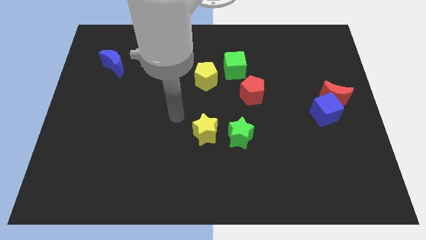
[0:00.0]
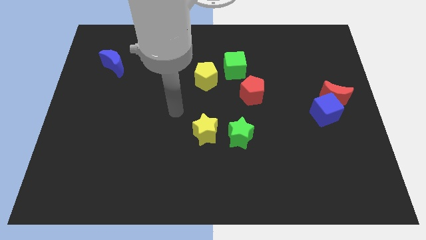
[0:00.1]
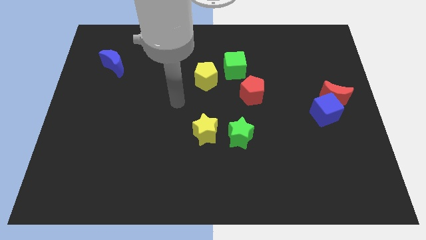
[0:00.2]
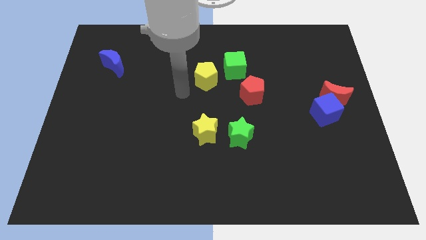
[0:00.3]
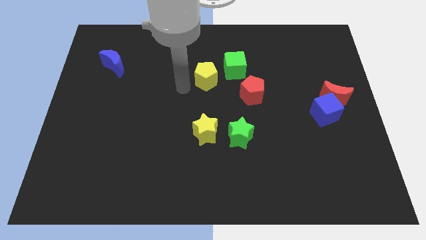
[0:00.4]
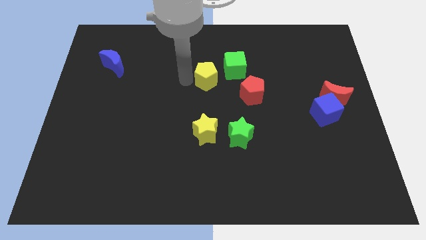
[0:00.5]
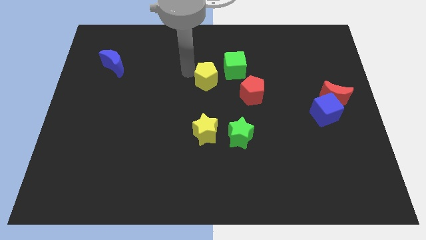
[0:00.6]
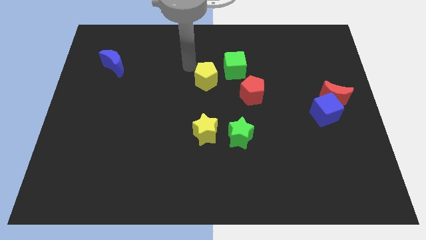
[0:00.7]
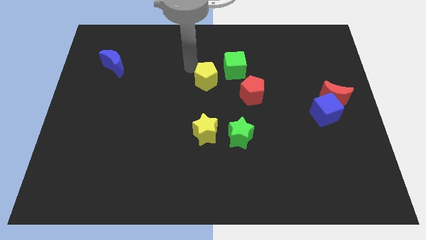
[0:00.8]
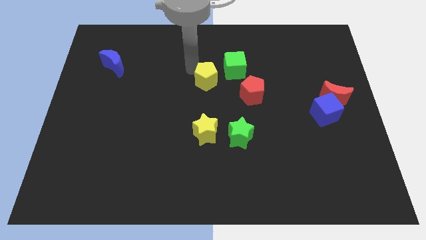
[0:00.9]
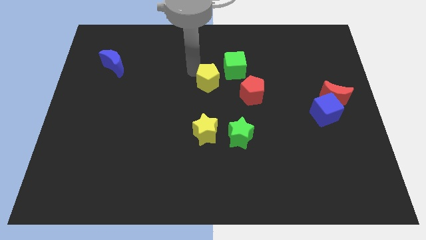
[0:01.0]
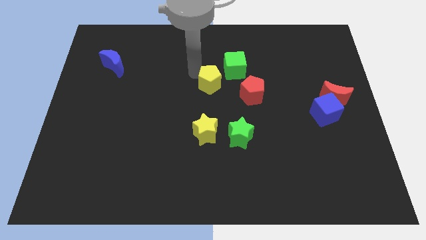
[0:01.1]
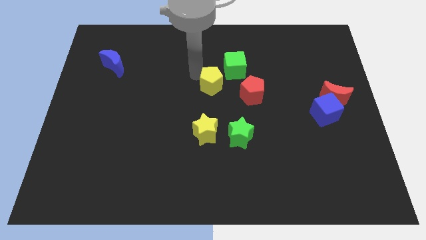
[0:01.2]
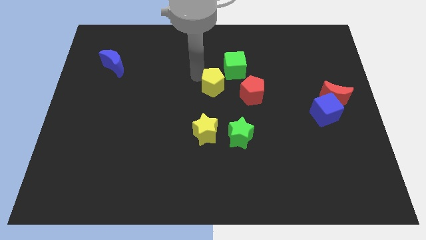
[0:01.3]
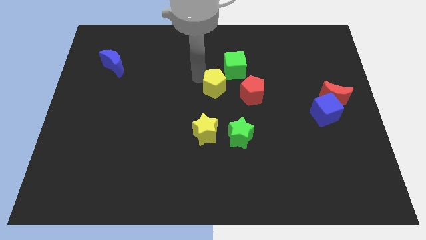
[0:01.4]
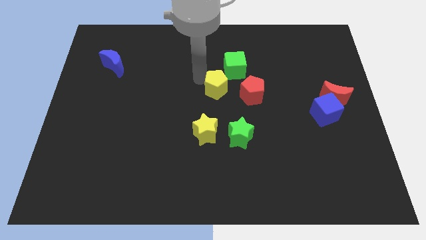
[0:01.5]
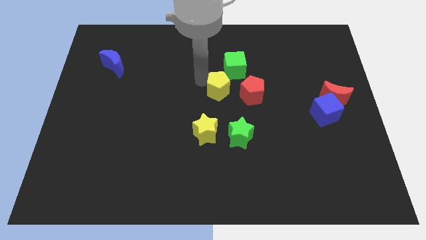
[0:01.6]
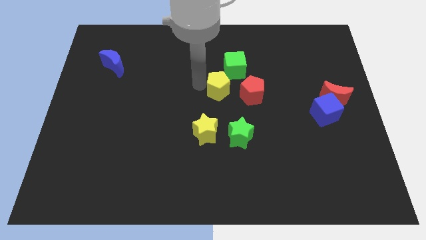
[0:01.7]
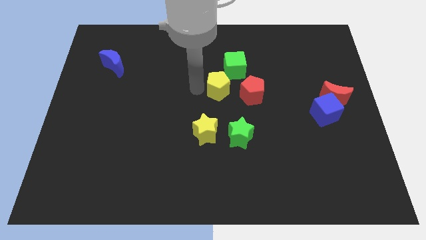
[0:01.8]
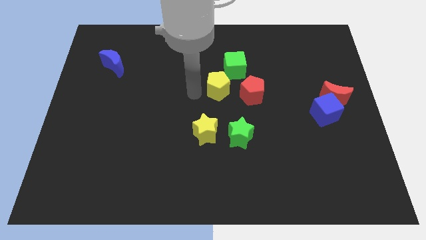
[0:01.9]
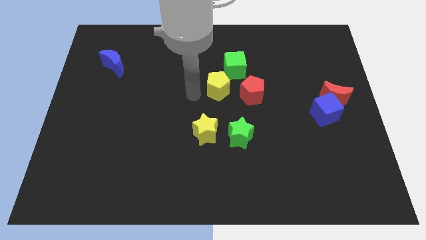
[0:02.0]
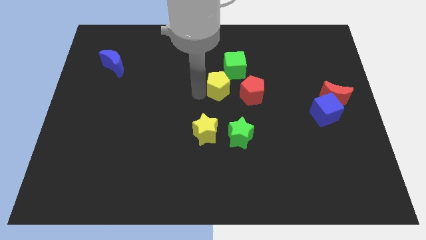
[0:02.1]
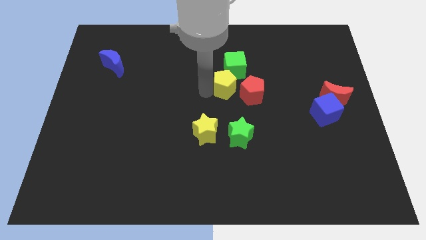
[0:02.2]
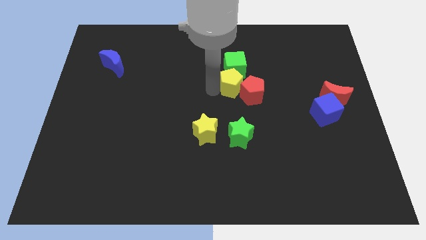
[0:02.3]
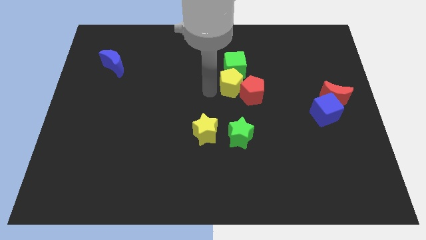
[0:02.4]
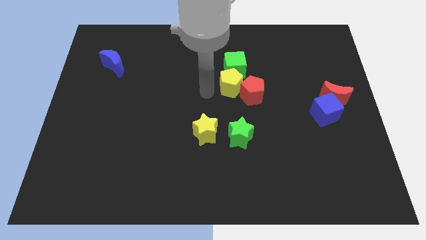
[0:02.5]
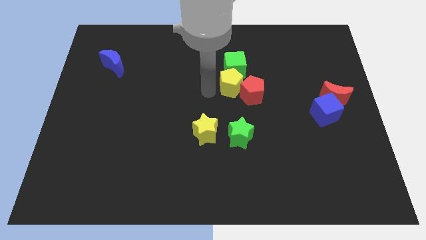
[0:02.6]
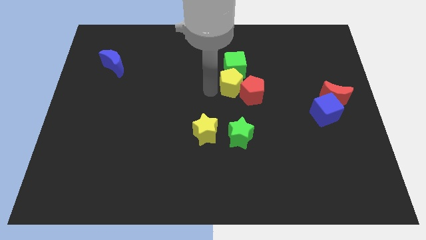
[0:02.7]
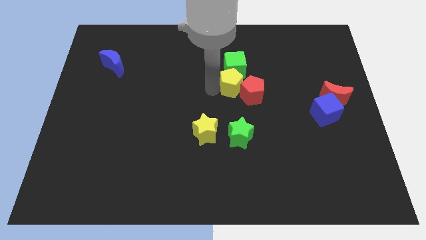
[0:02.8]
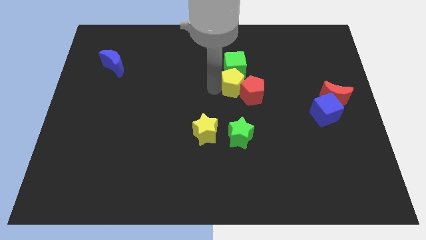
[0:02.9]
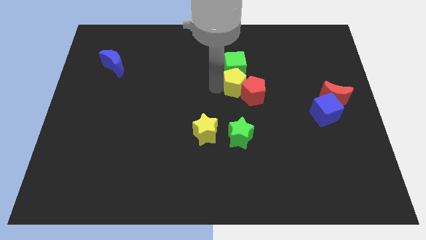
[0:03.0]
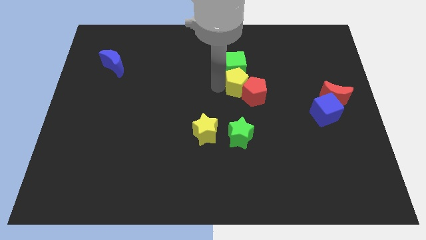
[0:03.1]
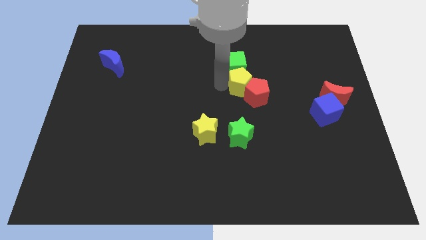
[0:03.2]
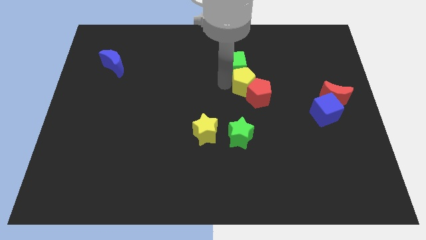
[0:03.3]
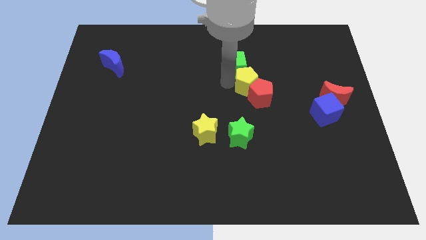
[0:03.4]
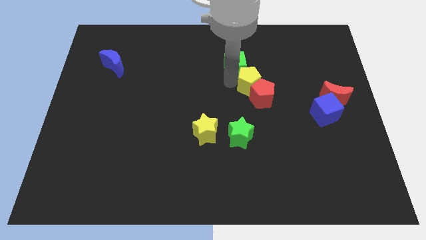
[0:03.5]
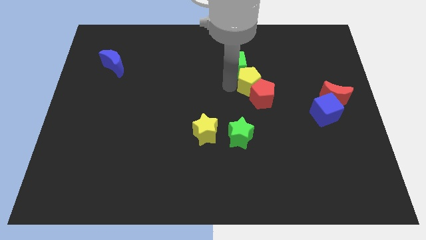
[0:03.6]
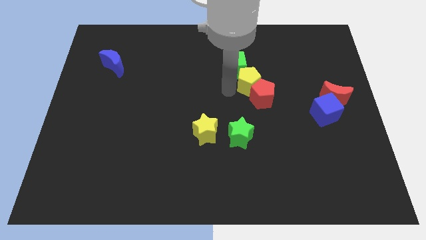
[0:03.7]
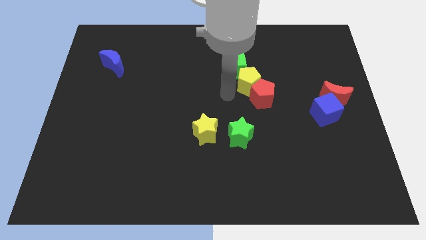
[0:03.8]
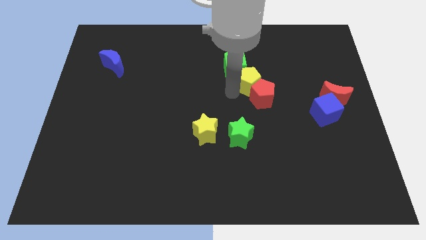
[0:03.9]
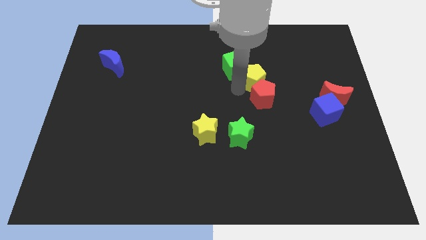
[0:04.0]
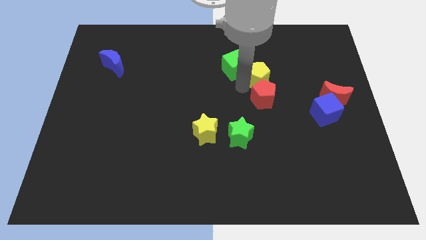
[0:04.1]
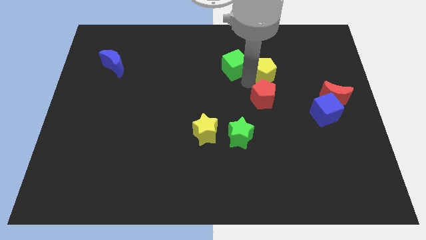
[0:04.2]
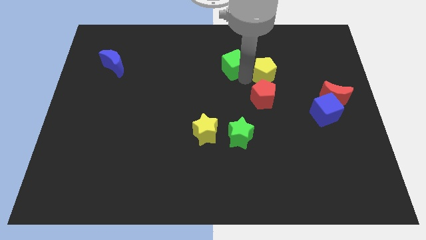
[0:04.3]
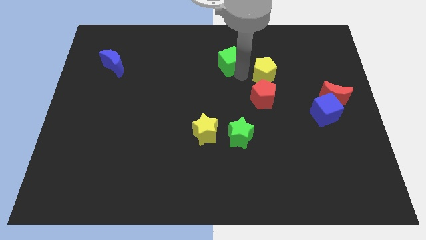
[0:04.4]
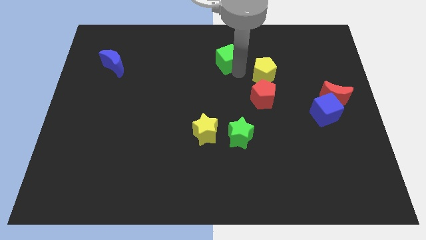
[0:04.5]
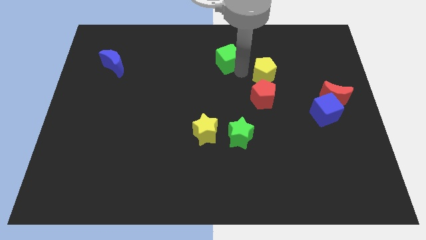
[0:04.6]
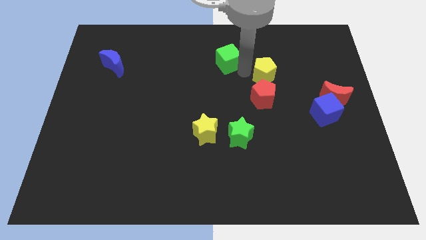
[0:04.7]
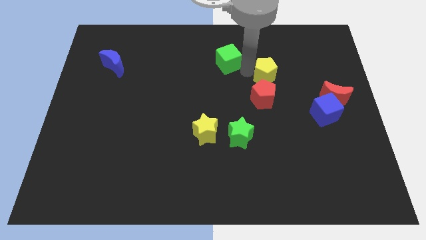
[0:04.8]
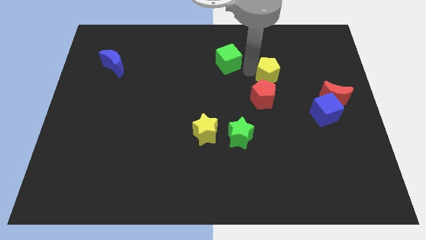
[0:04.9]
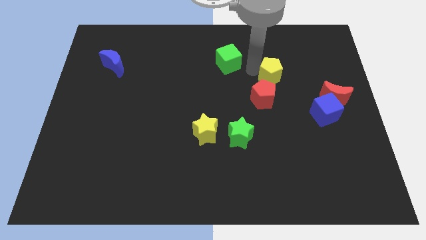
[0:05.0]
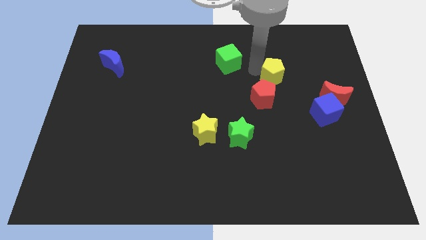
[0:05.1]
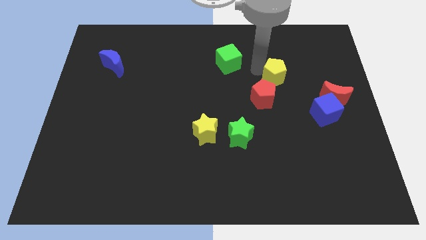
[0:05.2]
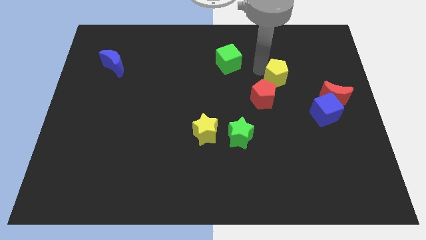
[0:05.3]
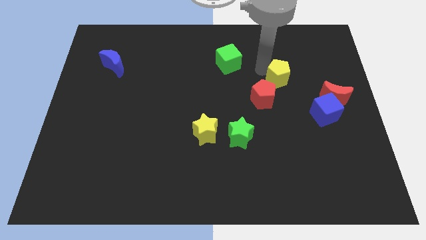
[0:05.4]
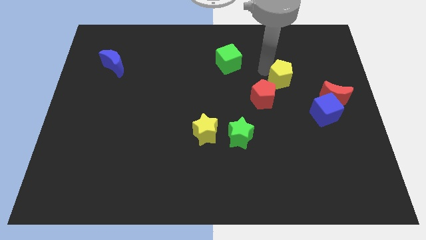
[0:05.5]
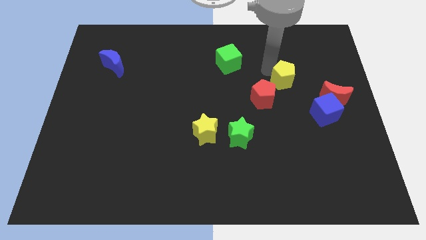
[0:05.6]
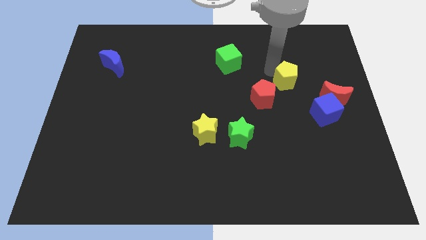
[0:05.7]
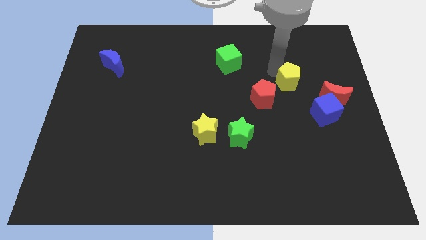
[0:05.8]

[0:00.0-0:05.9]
put the yellow pentagon to the top left side of the red moon

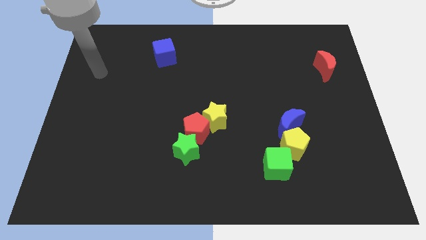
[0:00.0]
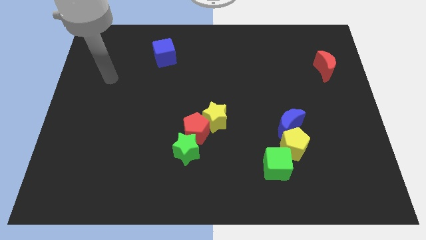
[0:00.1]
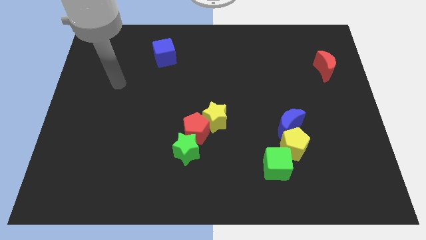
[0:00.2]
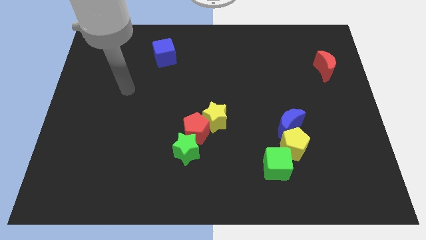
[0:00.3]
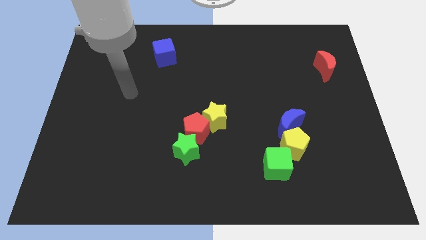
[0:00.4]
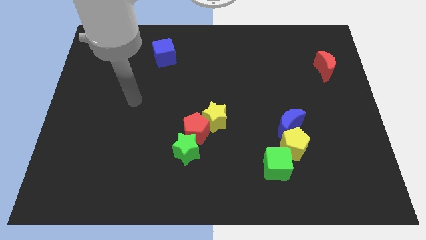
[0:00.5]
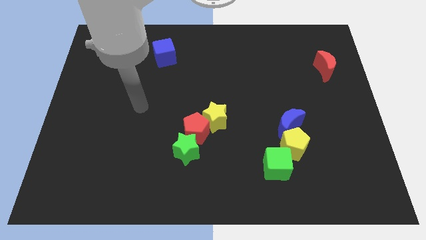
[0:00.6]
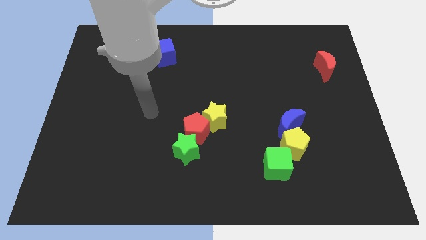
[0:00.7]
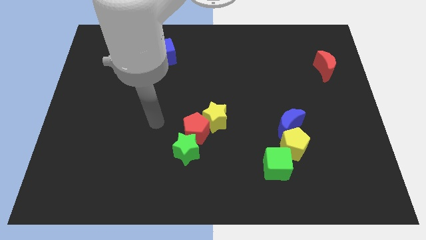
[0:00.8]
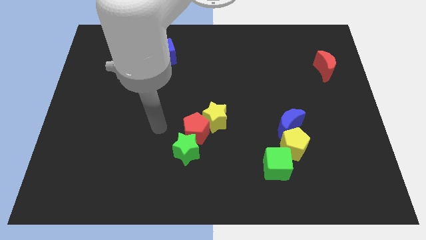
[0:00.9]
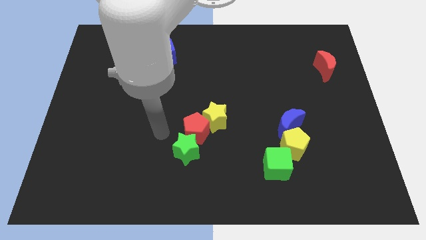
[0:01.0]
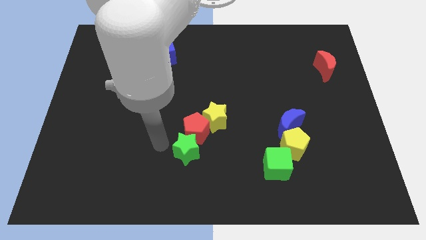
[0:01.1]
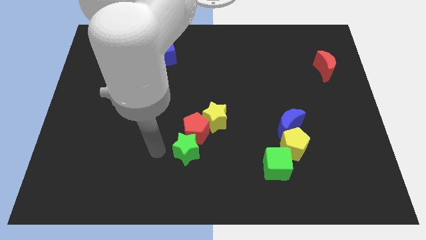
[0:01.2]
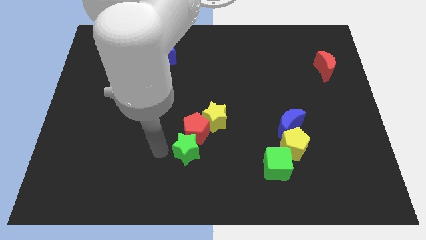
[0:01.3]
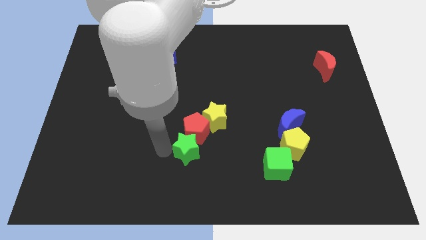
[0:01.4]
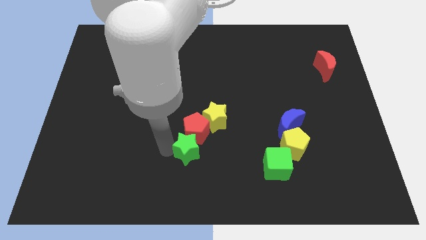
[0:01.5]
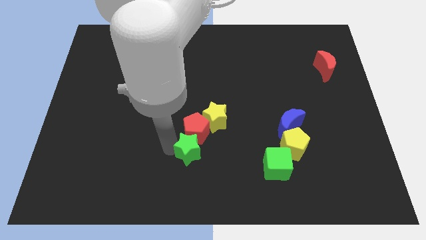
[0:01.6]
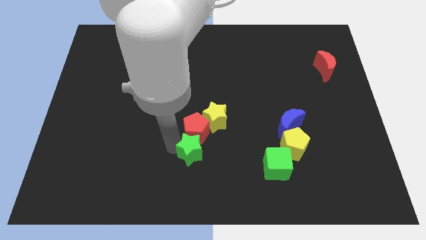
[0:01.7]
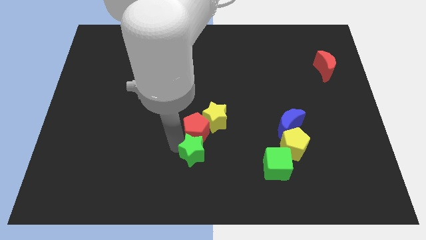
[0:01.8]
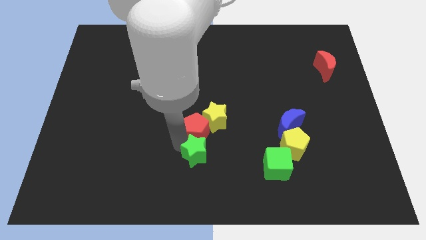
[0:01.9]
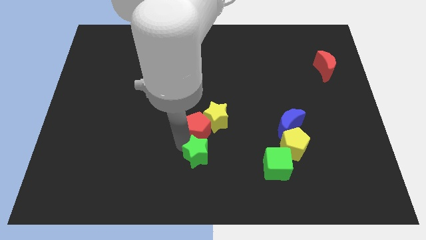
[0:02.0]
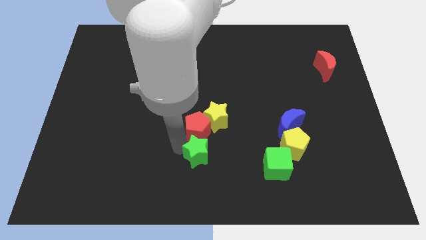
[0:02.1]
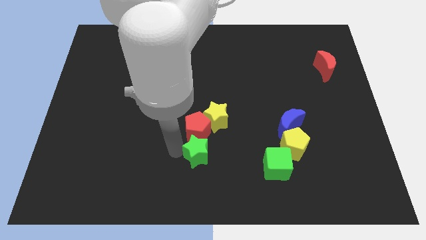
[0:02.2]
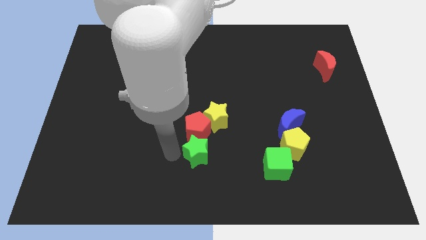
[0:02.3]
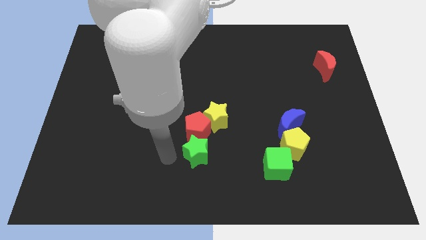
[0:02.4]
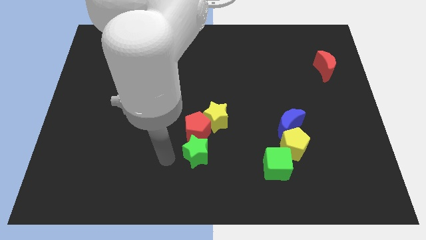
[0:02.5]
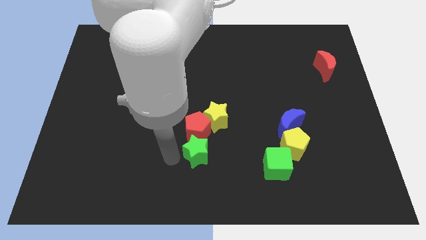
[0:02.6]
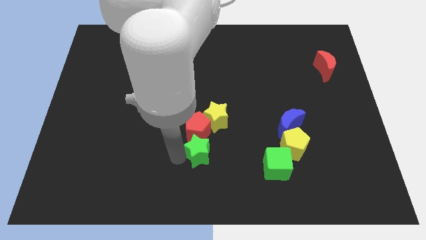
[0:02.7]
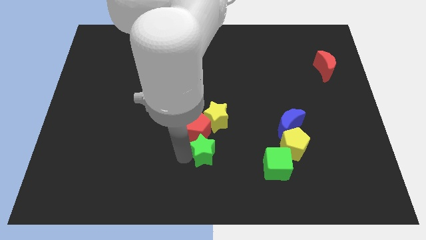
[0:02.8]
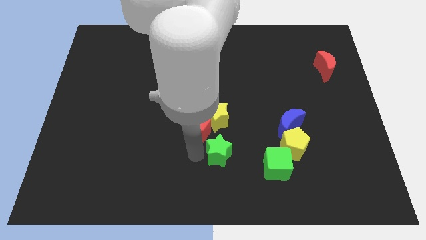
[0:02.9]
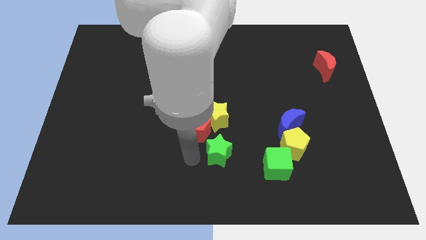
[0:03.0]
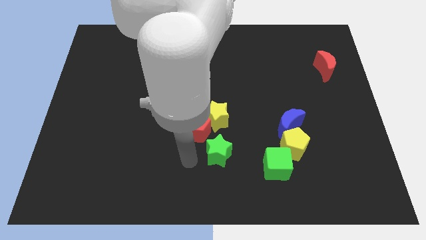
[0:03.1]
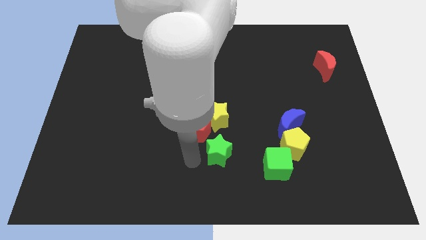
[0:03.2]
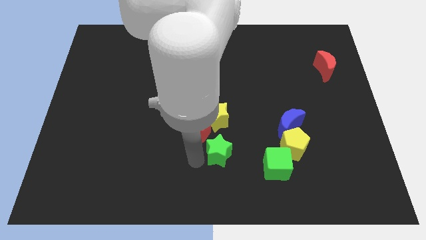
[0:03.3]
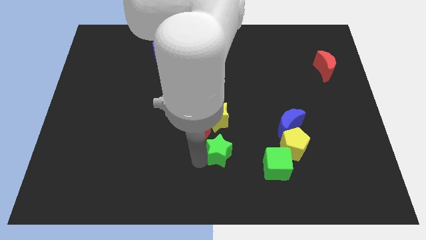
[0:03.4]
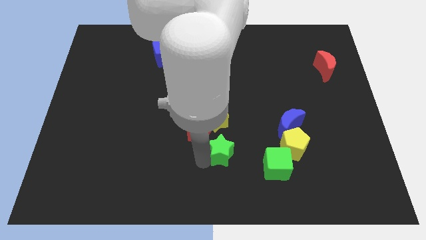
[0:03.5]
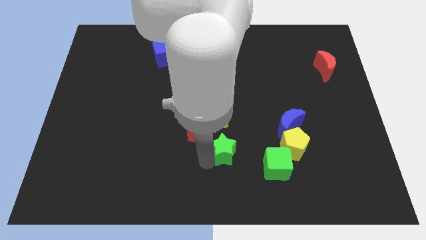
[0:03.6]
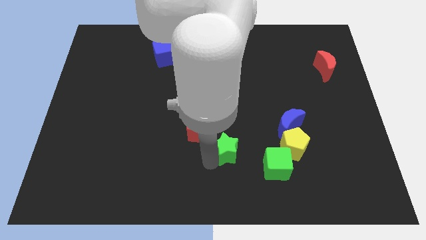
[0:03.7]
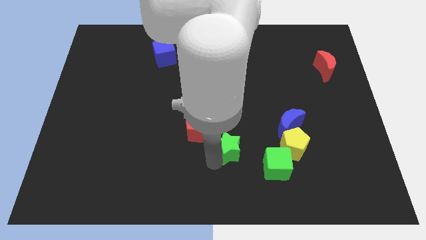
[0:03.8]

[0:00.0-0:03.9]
put the green star diagonally up and to the left of the green cube
